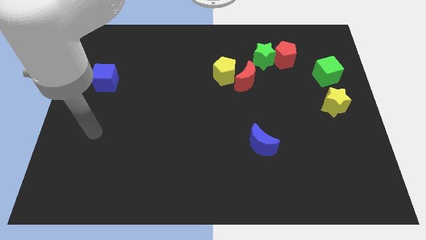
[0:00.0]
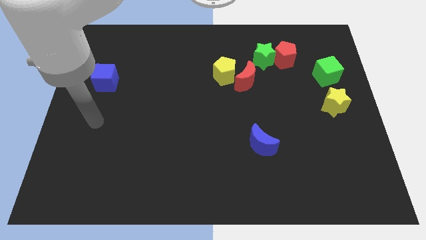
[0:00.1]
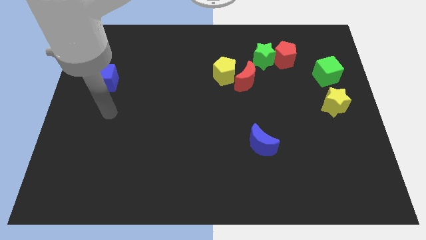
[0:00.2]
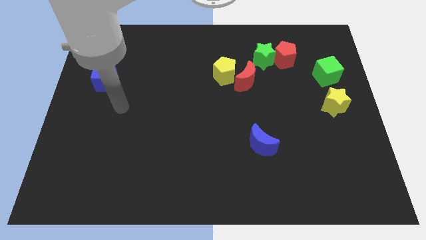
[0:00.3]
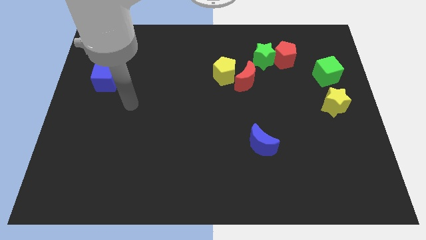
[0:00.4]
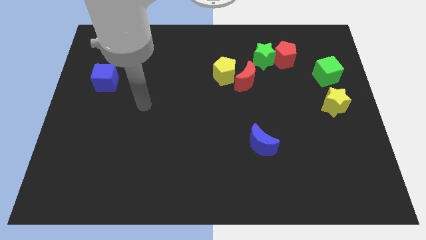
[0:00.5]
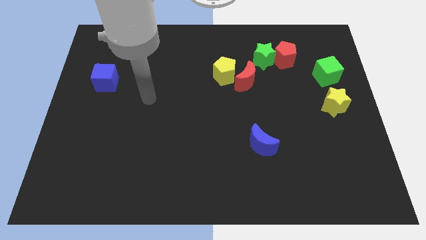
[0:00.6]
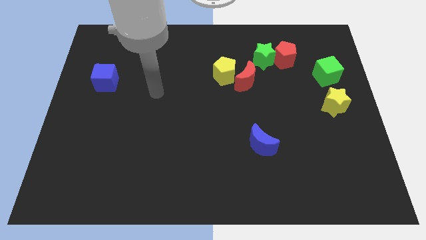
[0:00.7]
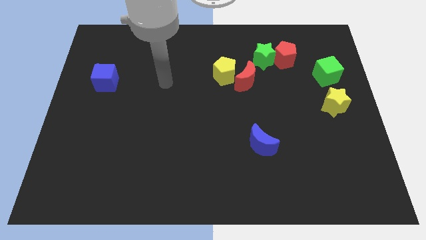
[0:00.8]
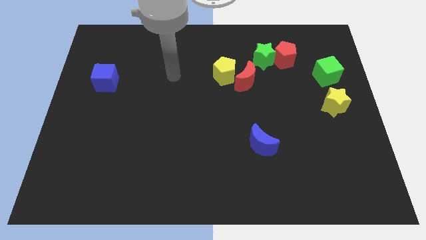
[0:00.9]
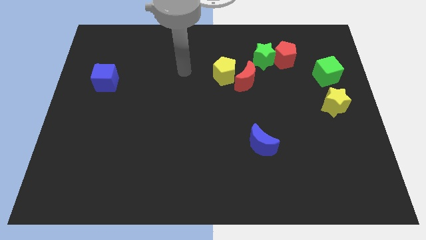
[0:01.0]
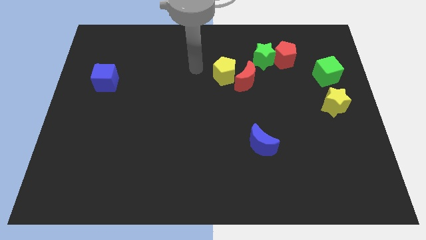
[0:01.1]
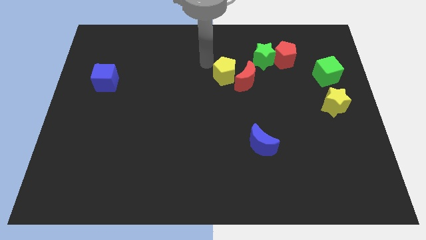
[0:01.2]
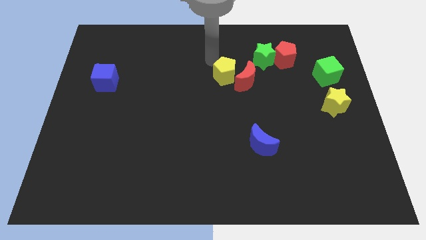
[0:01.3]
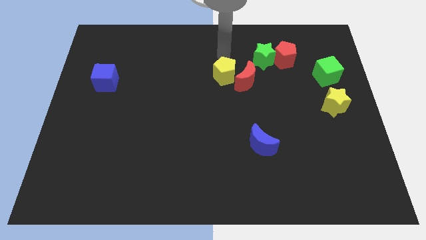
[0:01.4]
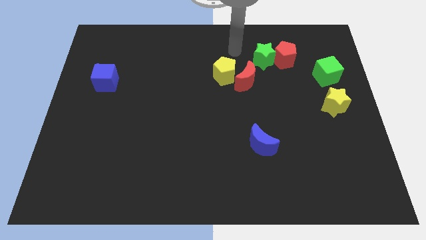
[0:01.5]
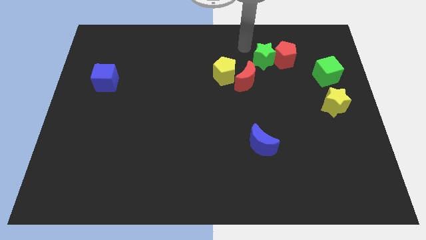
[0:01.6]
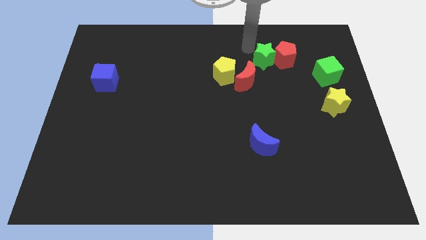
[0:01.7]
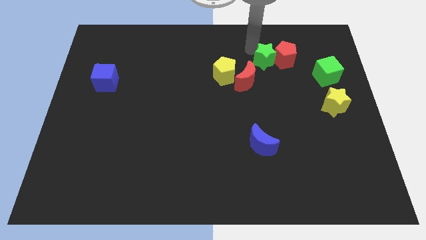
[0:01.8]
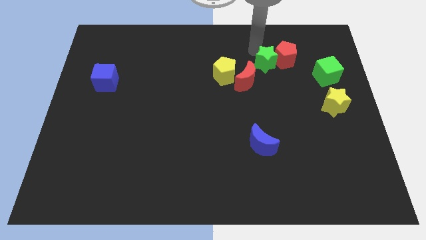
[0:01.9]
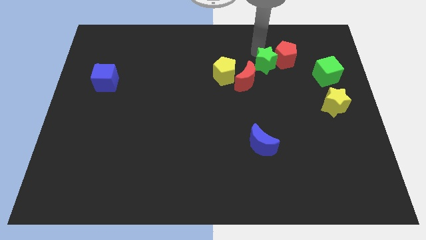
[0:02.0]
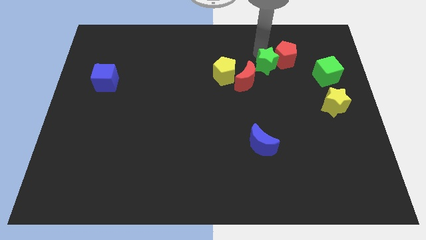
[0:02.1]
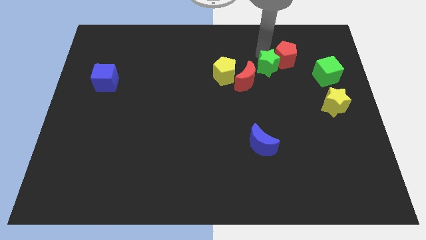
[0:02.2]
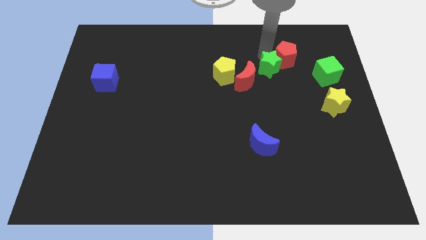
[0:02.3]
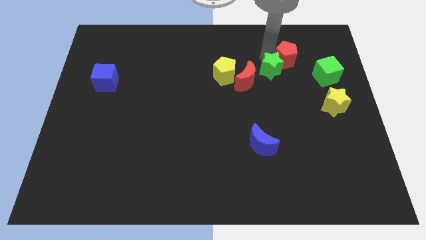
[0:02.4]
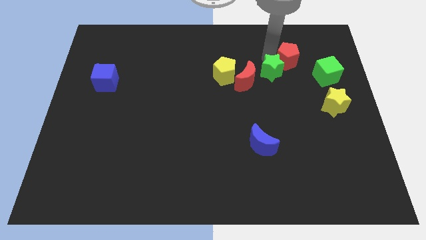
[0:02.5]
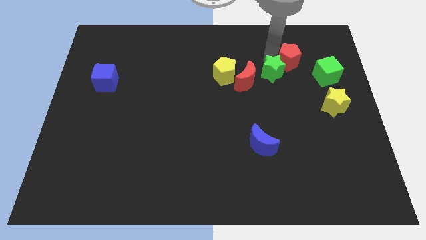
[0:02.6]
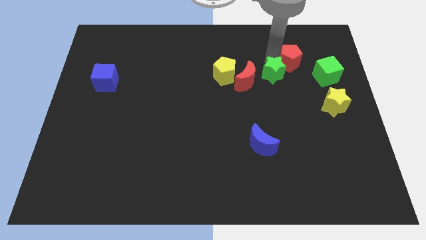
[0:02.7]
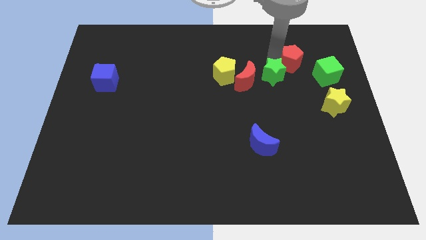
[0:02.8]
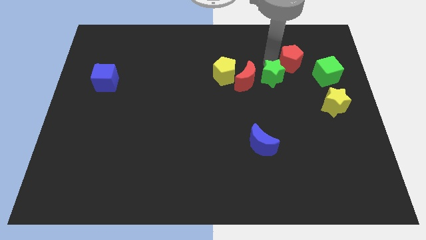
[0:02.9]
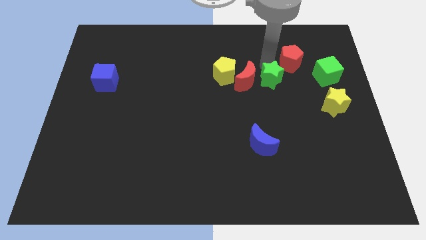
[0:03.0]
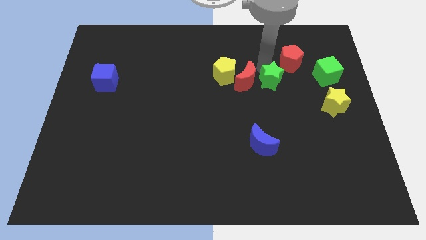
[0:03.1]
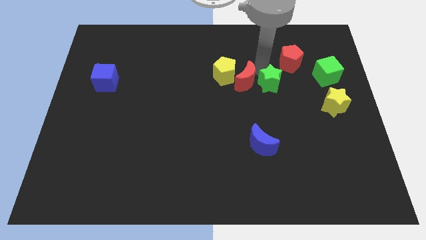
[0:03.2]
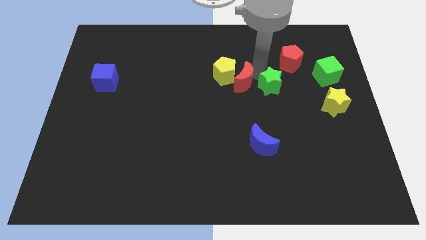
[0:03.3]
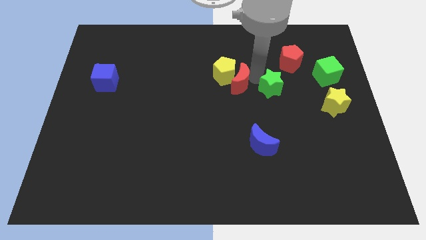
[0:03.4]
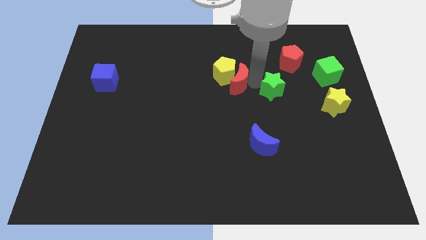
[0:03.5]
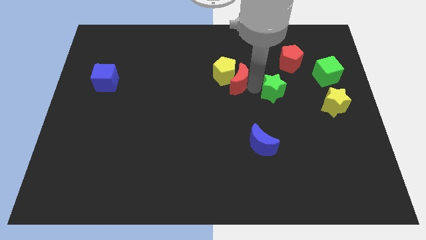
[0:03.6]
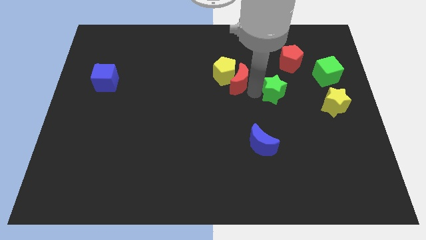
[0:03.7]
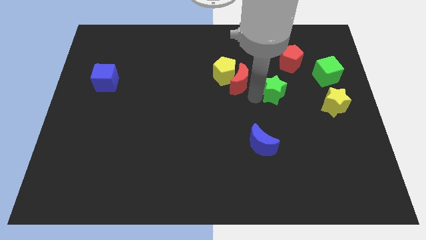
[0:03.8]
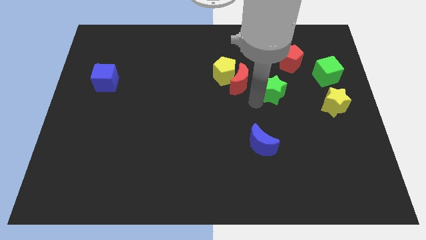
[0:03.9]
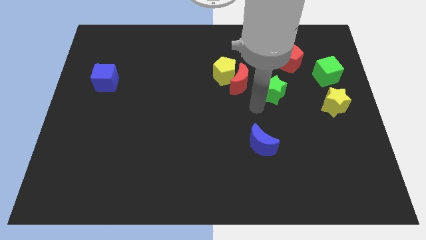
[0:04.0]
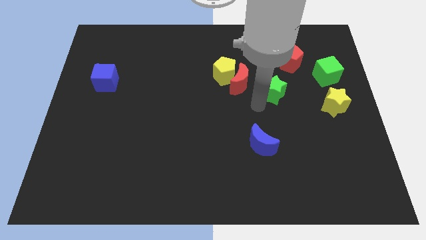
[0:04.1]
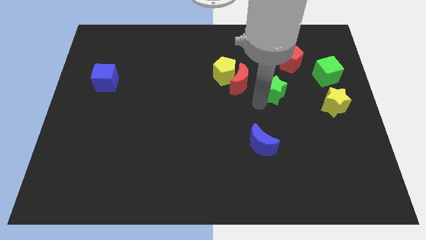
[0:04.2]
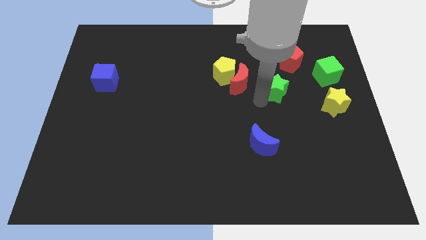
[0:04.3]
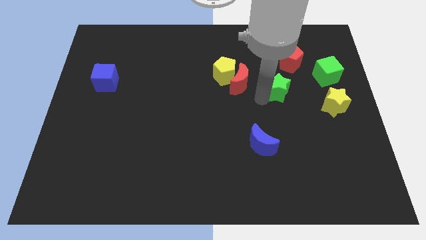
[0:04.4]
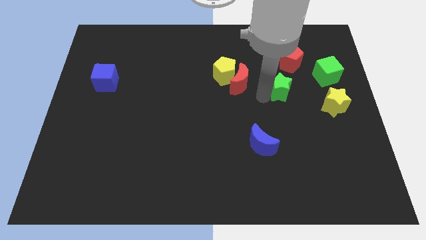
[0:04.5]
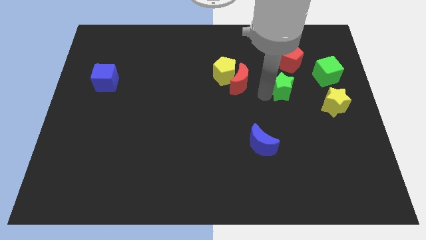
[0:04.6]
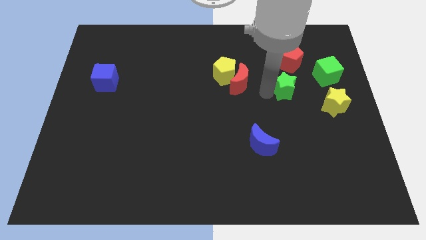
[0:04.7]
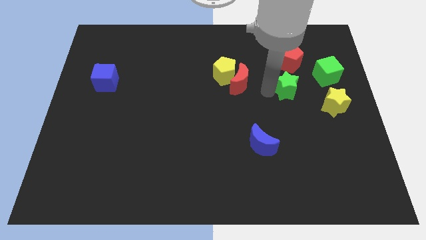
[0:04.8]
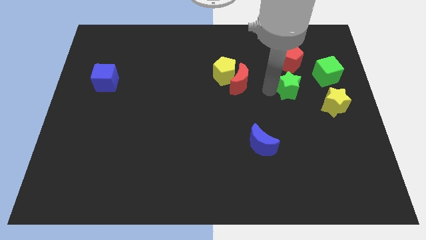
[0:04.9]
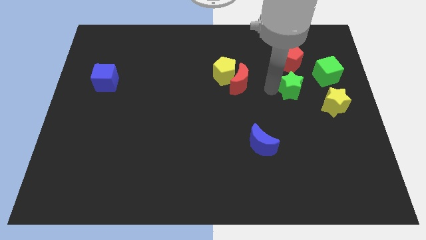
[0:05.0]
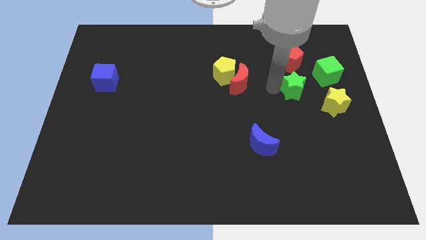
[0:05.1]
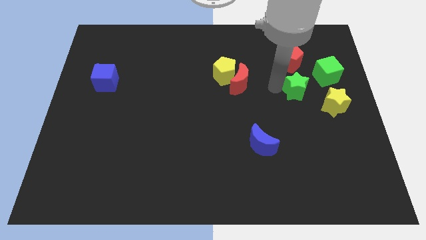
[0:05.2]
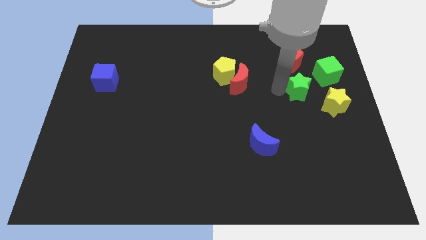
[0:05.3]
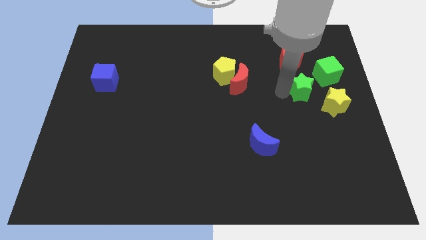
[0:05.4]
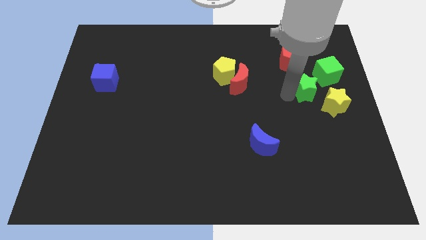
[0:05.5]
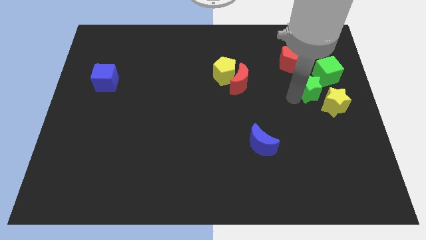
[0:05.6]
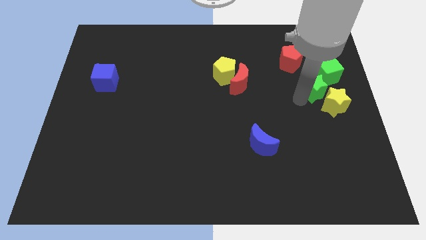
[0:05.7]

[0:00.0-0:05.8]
slide the green star to the top side of the yellow star

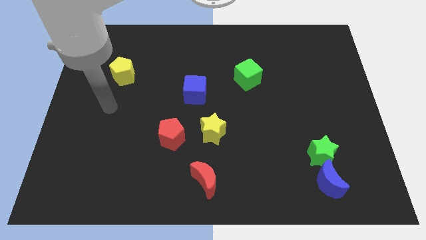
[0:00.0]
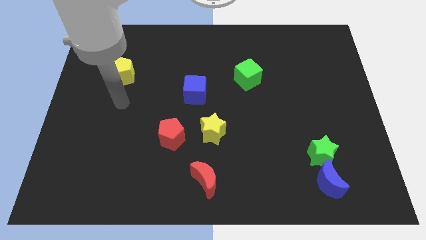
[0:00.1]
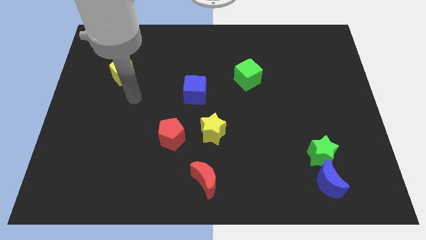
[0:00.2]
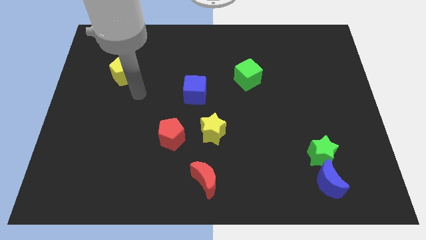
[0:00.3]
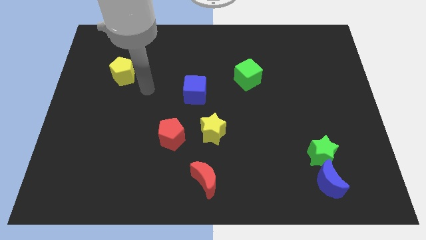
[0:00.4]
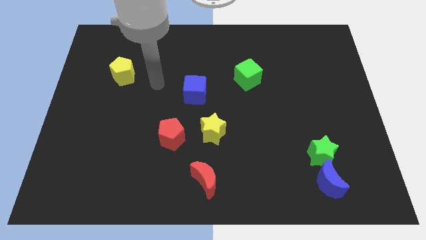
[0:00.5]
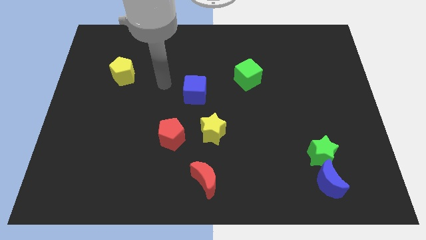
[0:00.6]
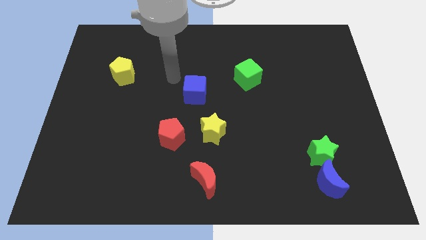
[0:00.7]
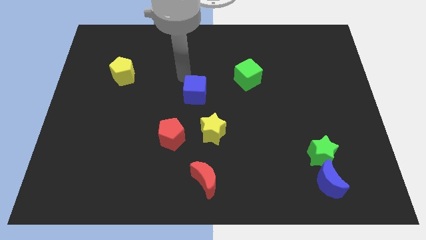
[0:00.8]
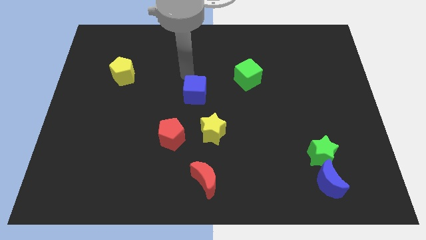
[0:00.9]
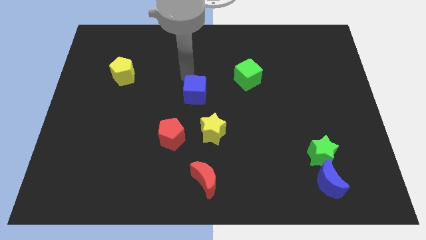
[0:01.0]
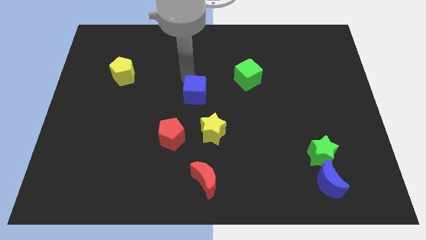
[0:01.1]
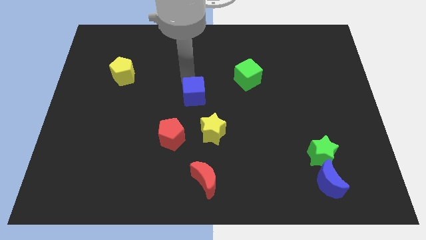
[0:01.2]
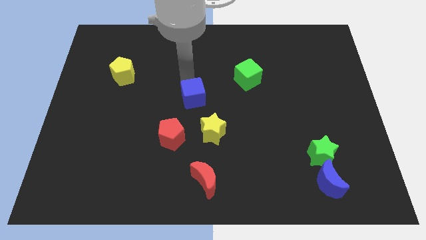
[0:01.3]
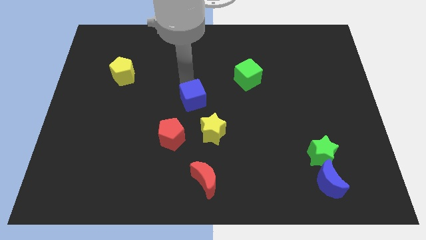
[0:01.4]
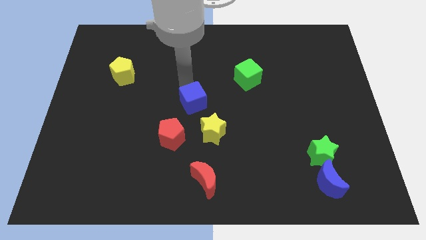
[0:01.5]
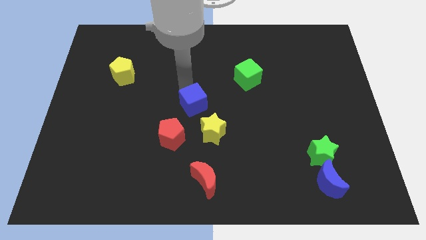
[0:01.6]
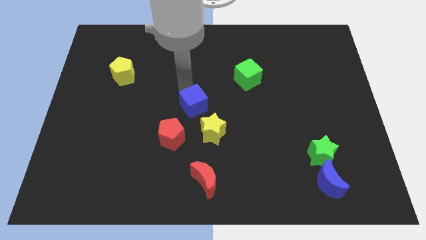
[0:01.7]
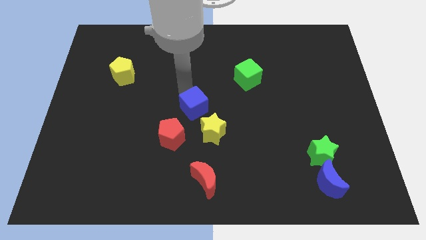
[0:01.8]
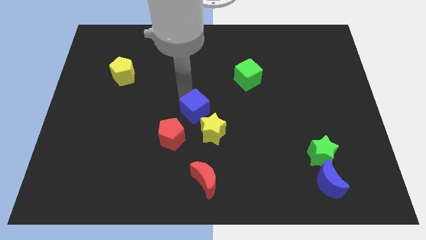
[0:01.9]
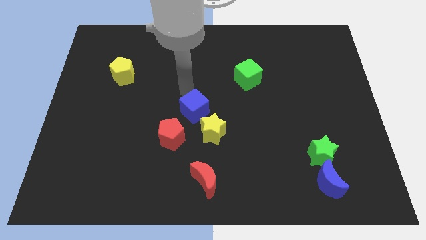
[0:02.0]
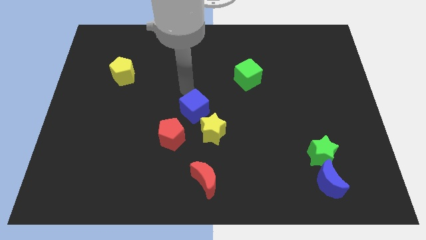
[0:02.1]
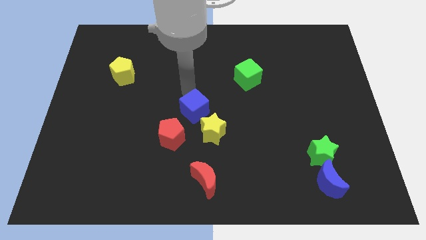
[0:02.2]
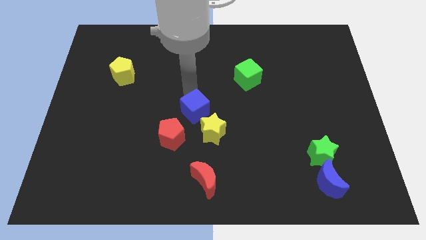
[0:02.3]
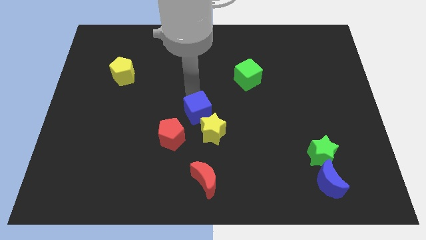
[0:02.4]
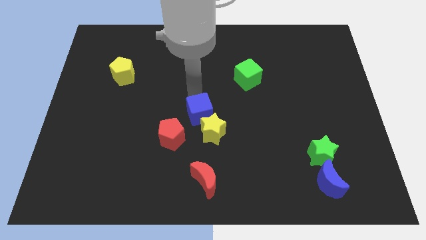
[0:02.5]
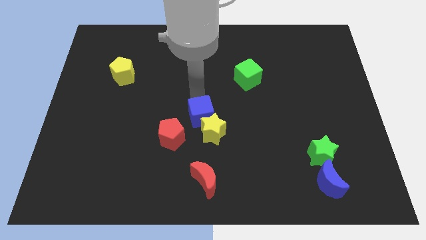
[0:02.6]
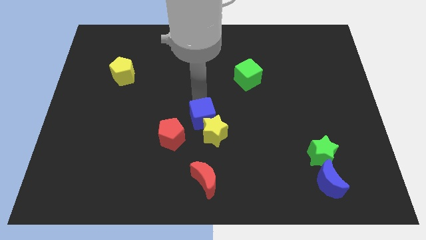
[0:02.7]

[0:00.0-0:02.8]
slide the blue cube to the top of the red moon
